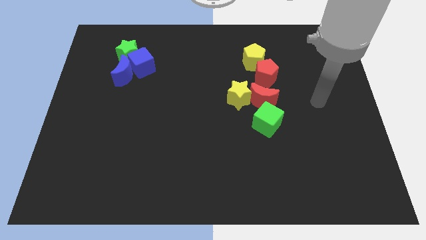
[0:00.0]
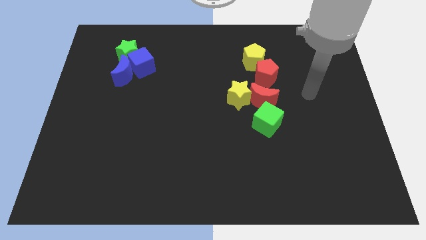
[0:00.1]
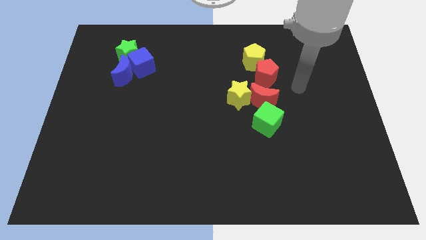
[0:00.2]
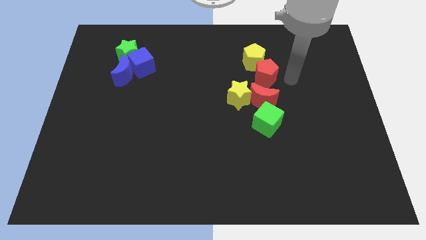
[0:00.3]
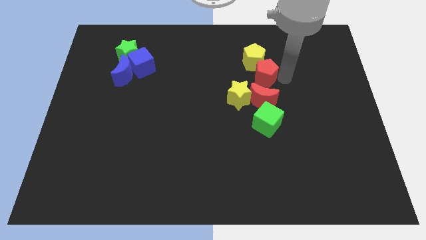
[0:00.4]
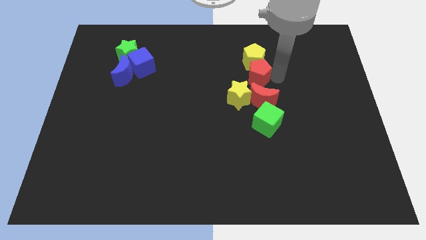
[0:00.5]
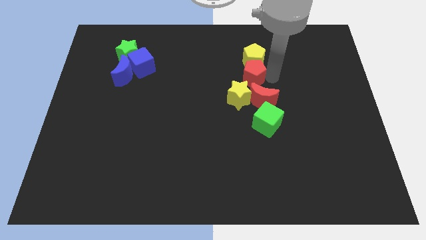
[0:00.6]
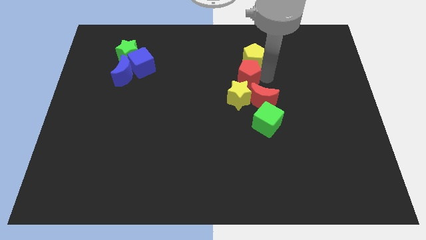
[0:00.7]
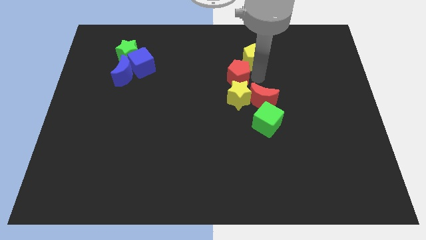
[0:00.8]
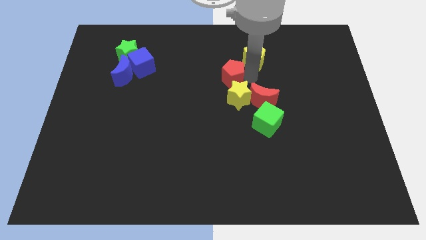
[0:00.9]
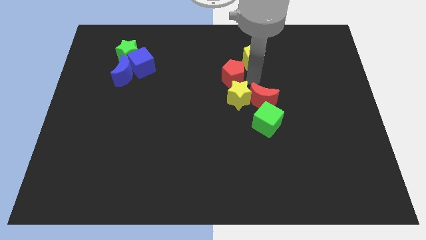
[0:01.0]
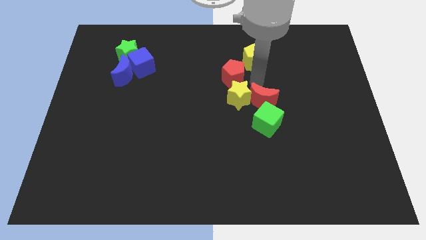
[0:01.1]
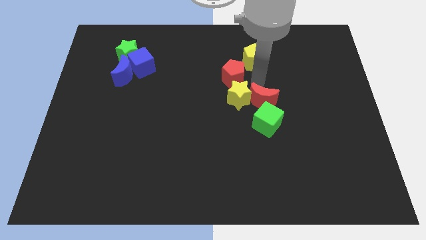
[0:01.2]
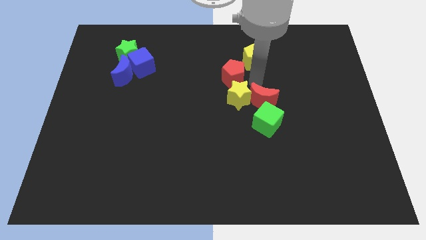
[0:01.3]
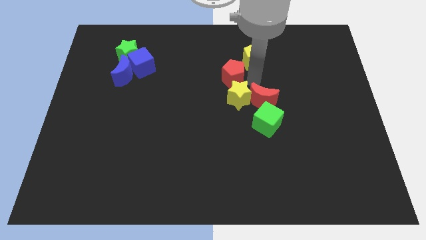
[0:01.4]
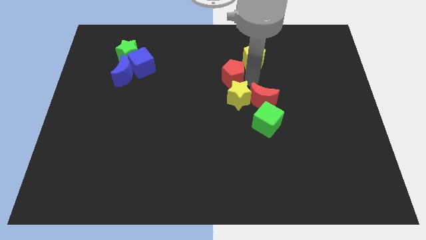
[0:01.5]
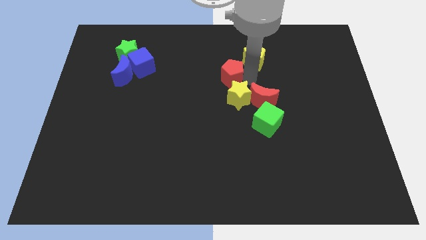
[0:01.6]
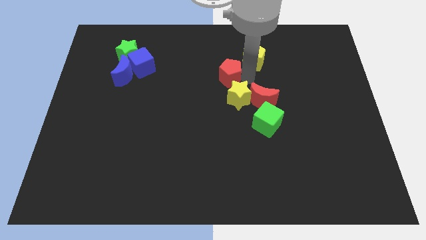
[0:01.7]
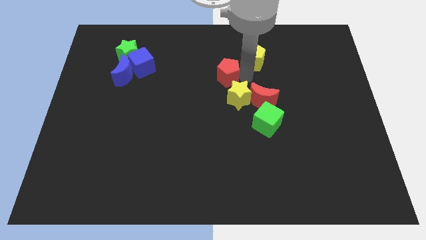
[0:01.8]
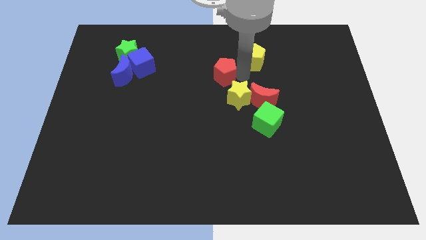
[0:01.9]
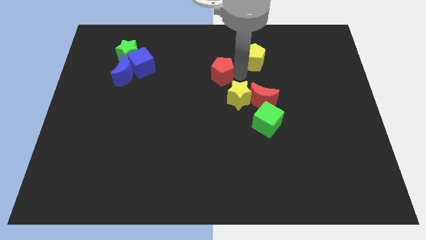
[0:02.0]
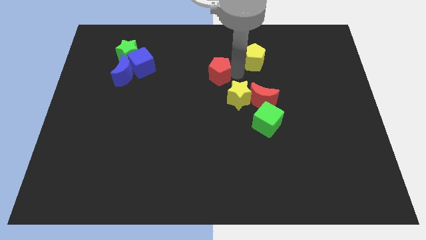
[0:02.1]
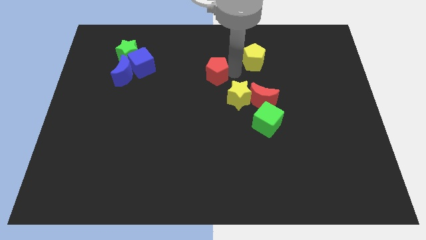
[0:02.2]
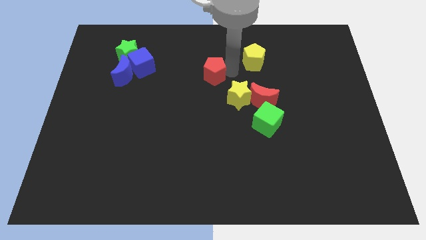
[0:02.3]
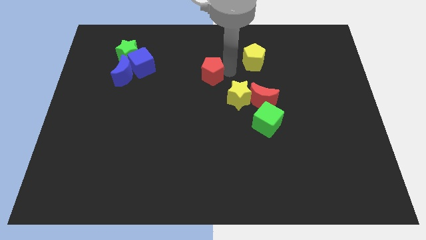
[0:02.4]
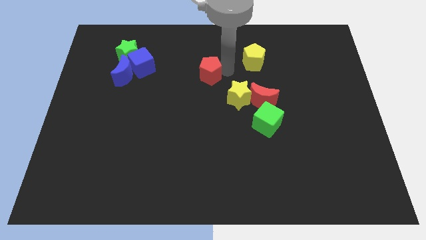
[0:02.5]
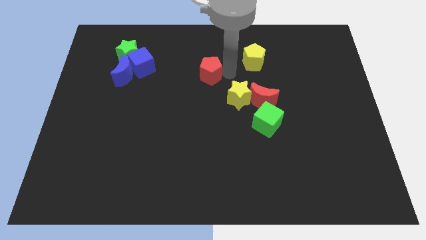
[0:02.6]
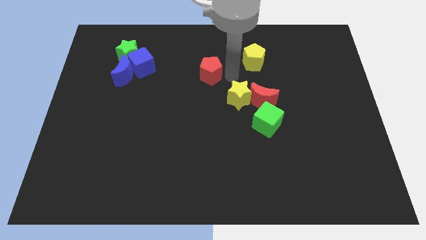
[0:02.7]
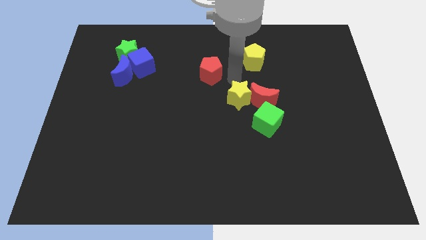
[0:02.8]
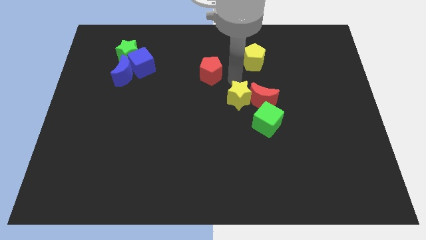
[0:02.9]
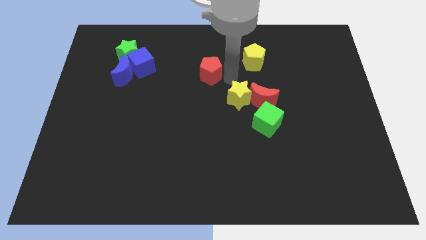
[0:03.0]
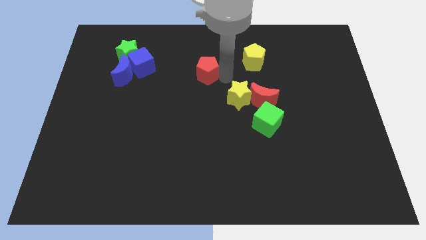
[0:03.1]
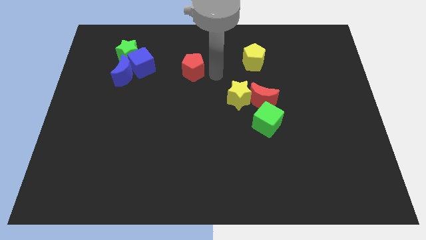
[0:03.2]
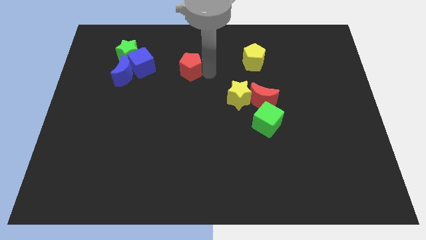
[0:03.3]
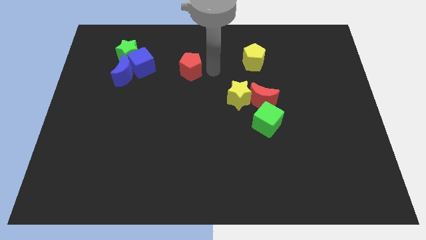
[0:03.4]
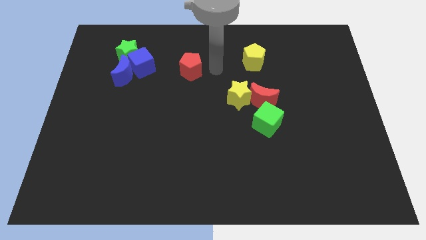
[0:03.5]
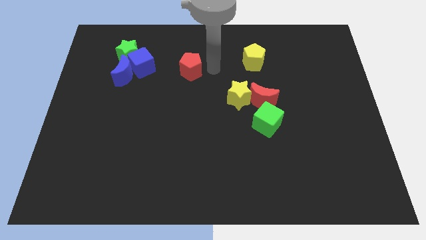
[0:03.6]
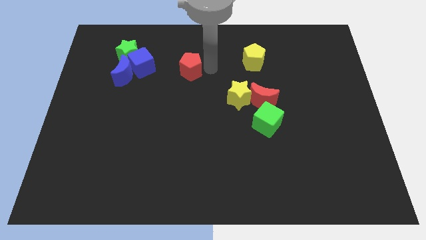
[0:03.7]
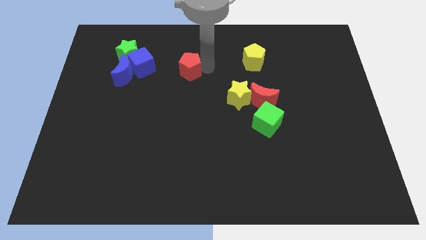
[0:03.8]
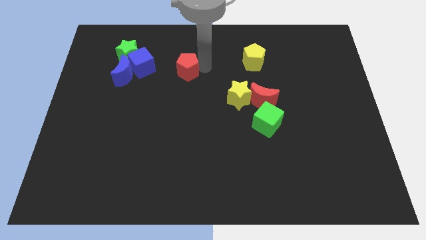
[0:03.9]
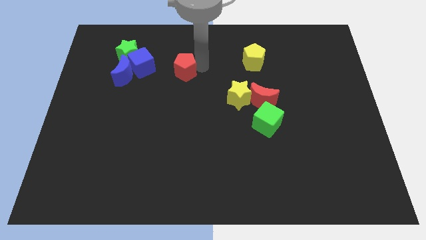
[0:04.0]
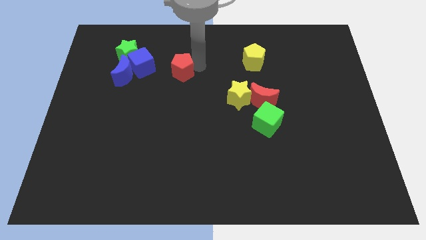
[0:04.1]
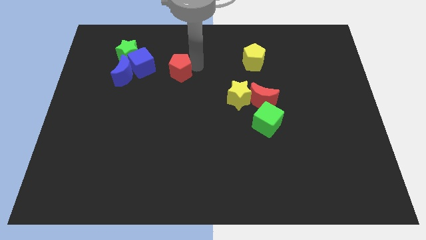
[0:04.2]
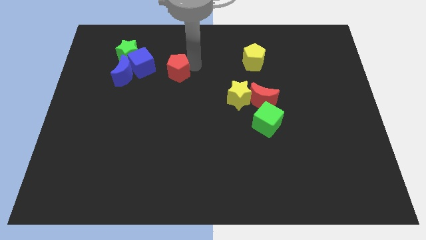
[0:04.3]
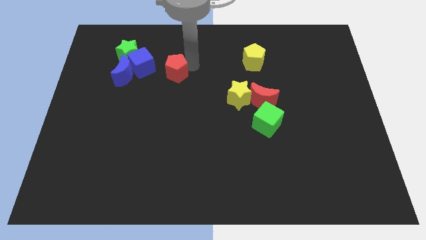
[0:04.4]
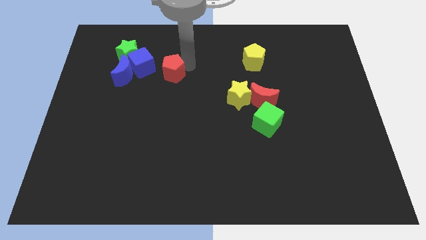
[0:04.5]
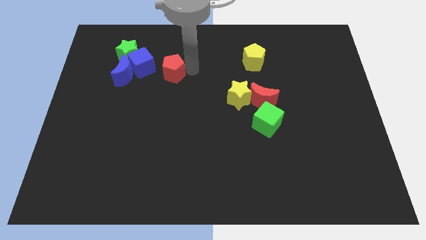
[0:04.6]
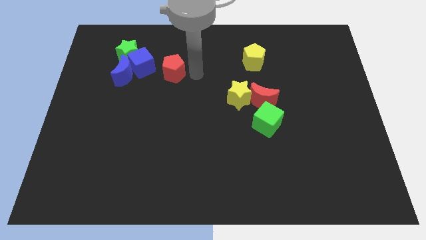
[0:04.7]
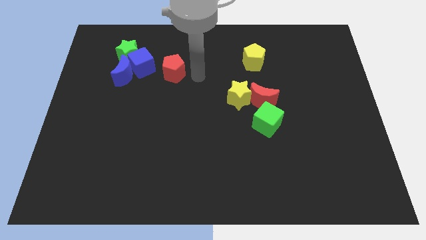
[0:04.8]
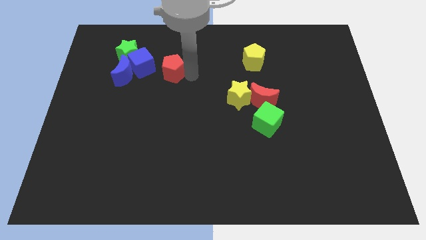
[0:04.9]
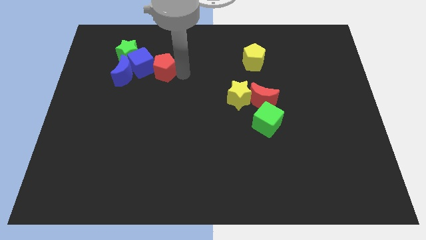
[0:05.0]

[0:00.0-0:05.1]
put the red pentagon next to the blue cube

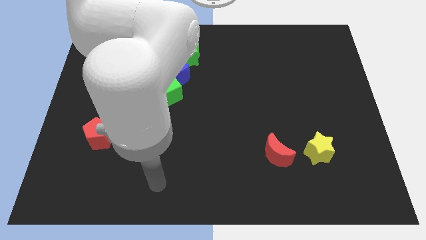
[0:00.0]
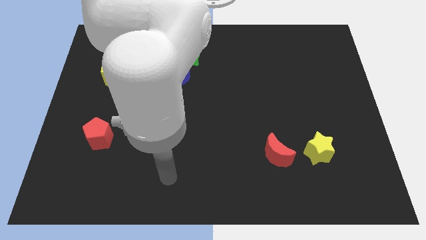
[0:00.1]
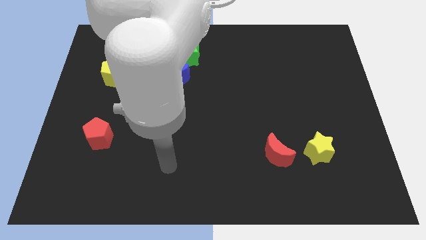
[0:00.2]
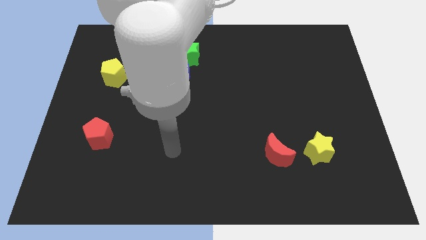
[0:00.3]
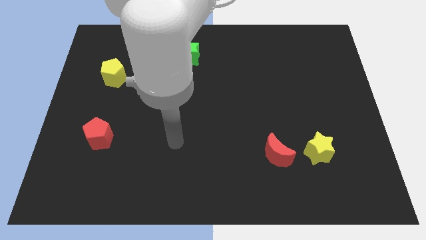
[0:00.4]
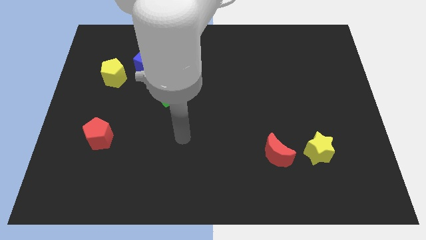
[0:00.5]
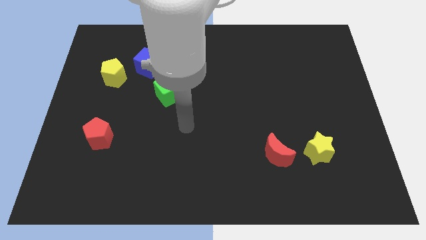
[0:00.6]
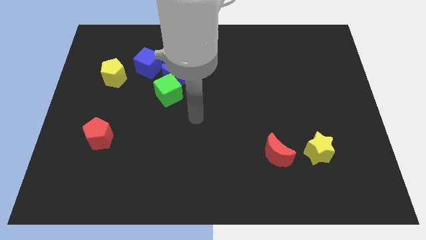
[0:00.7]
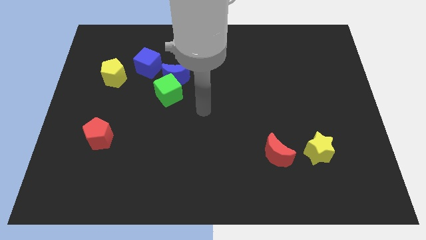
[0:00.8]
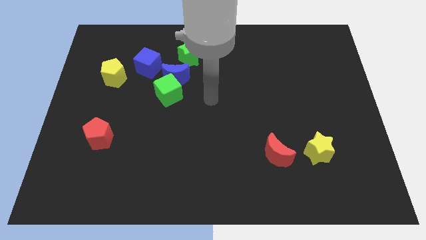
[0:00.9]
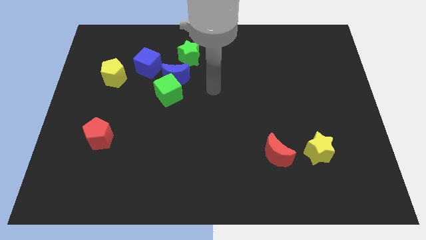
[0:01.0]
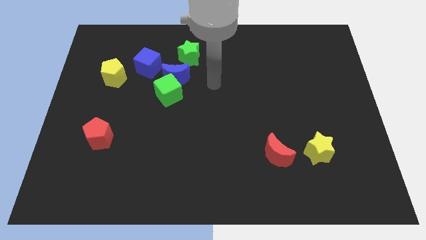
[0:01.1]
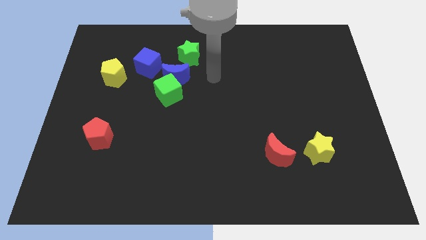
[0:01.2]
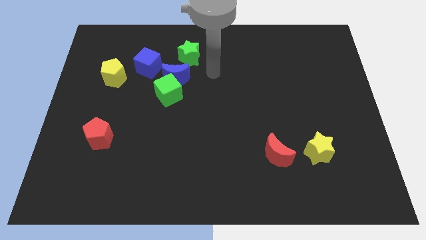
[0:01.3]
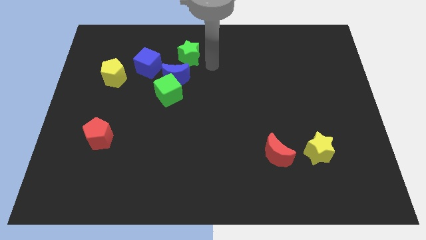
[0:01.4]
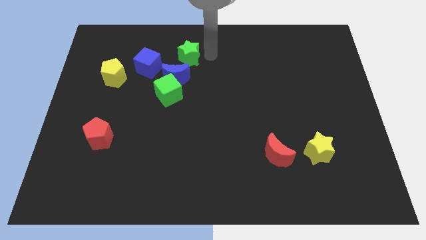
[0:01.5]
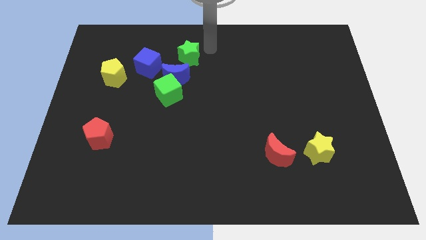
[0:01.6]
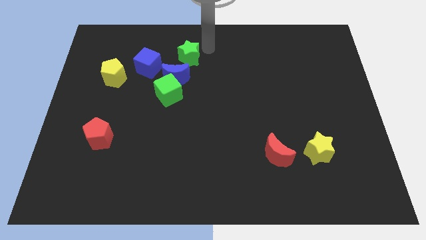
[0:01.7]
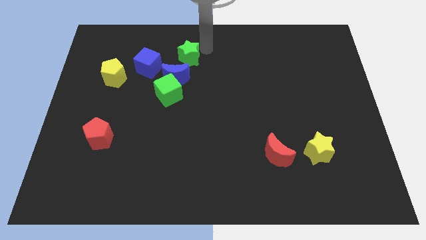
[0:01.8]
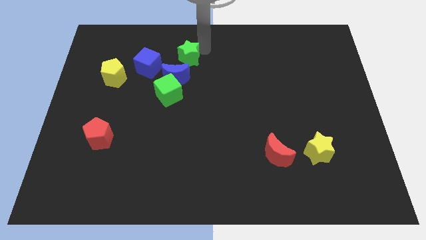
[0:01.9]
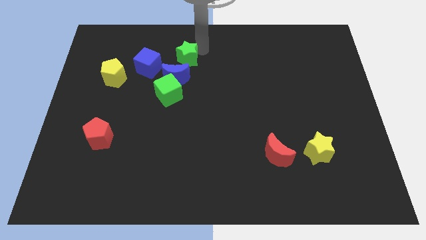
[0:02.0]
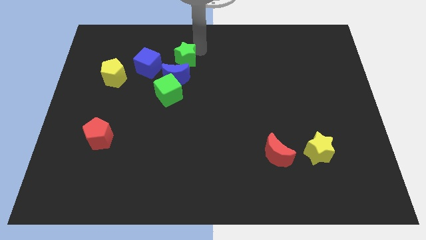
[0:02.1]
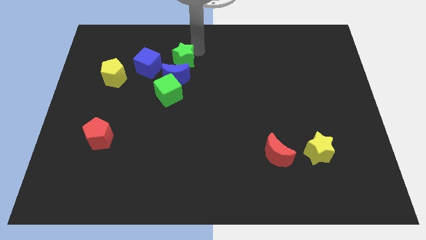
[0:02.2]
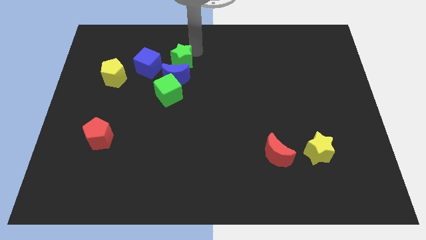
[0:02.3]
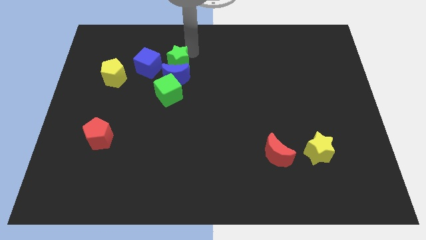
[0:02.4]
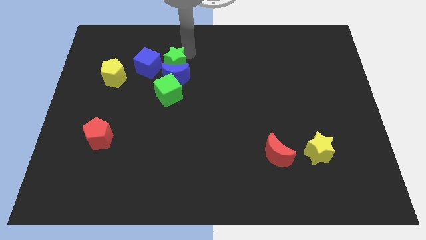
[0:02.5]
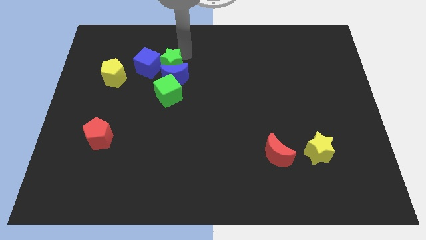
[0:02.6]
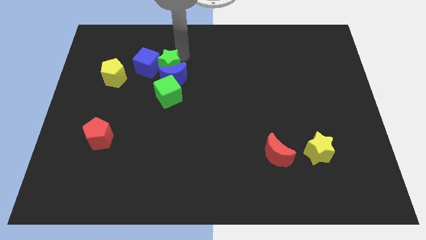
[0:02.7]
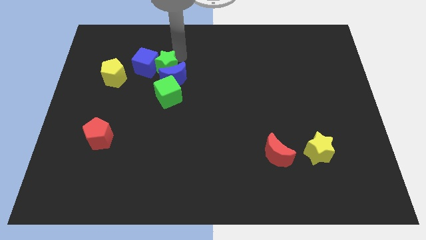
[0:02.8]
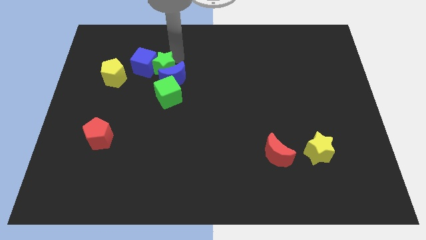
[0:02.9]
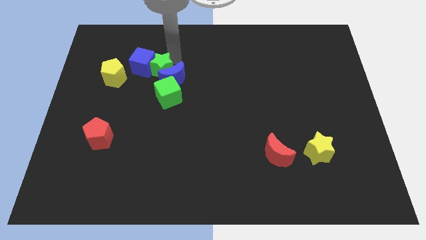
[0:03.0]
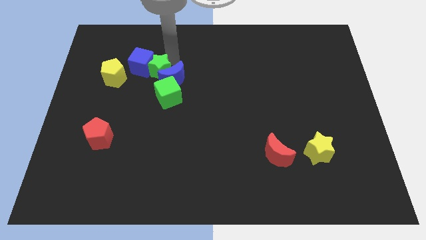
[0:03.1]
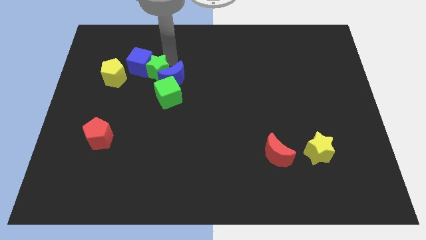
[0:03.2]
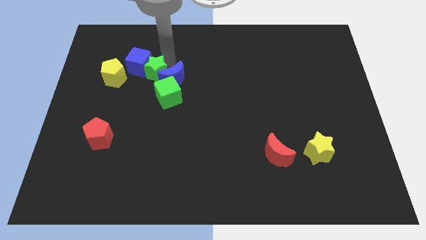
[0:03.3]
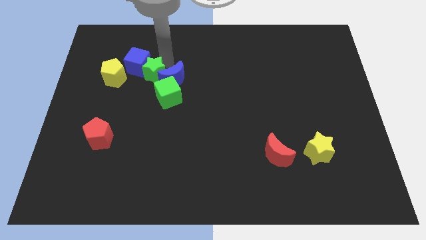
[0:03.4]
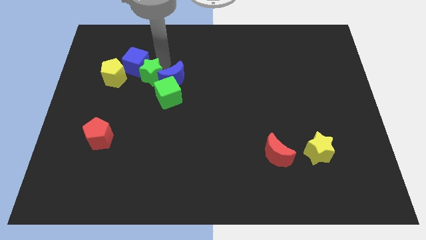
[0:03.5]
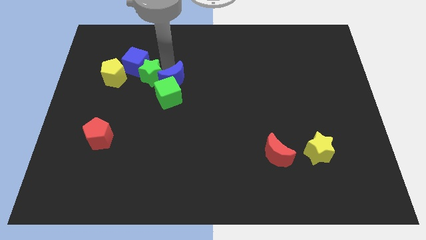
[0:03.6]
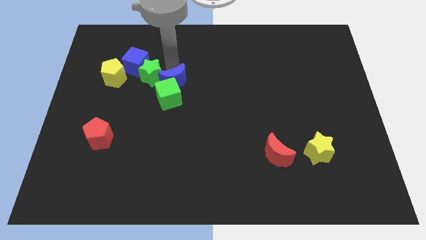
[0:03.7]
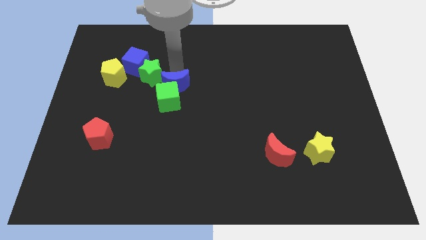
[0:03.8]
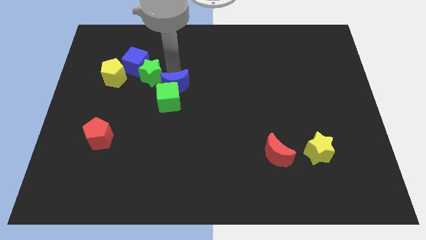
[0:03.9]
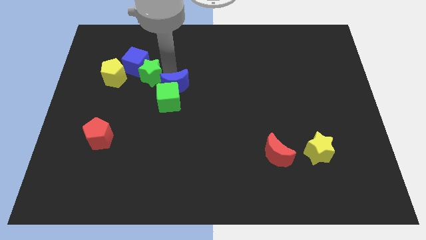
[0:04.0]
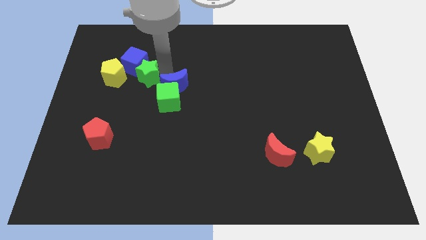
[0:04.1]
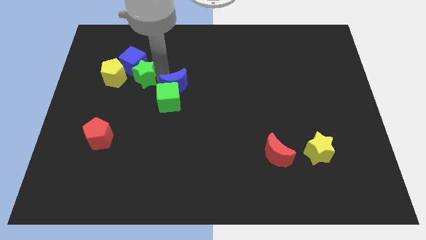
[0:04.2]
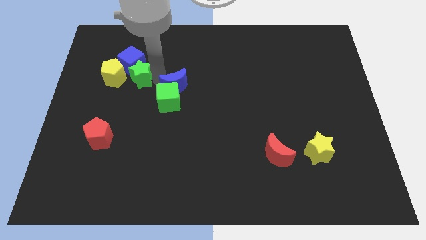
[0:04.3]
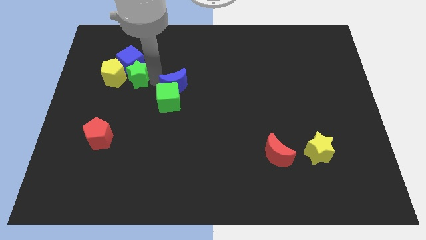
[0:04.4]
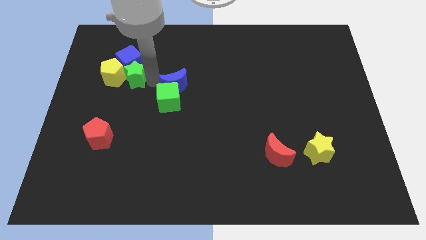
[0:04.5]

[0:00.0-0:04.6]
slide the green star to the yellow pentagon
